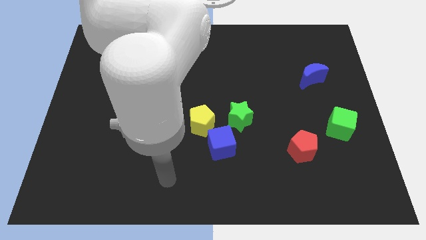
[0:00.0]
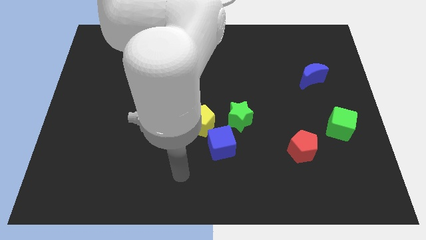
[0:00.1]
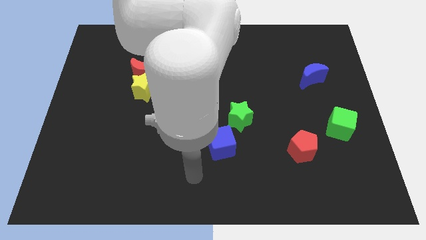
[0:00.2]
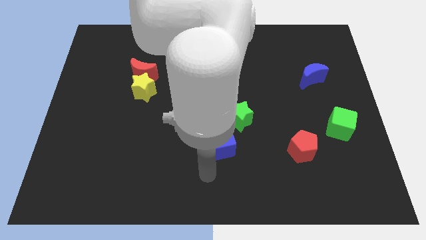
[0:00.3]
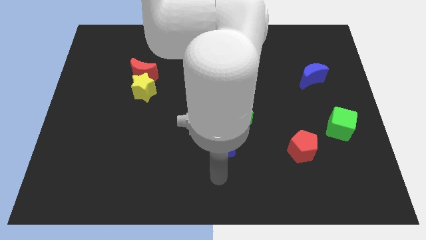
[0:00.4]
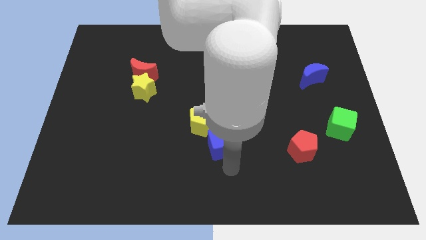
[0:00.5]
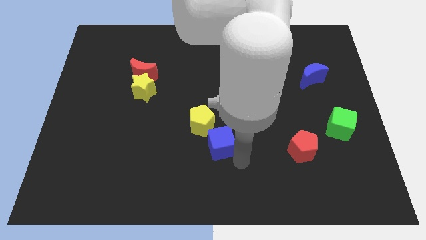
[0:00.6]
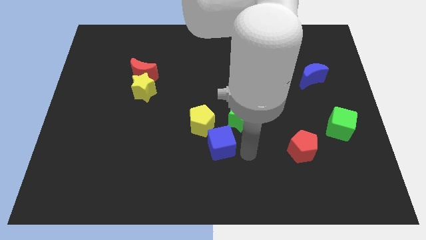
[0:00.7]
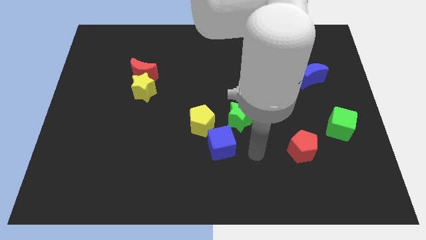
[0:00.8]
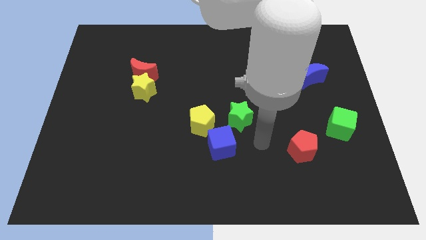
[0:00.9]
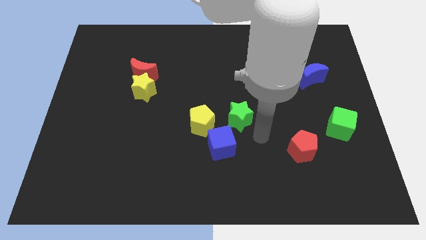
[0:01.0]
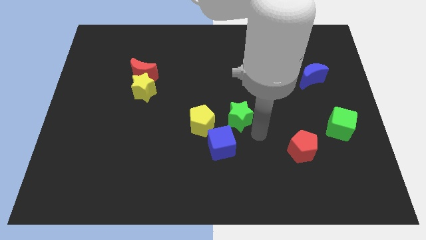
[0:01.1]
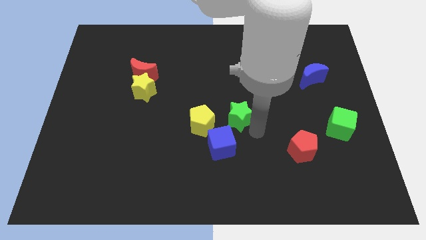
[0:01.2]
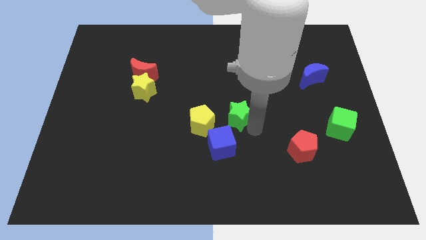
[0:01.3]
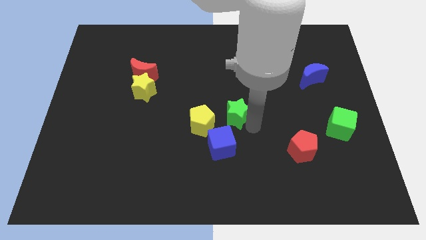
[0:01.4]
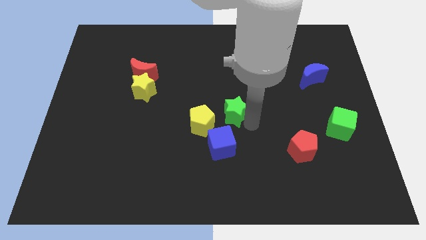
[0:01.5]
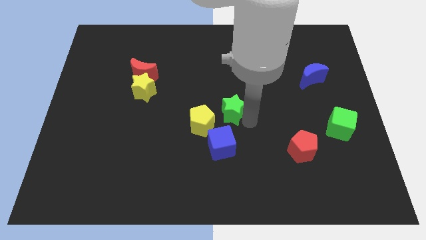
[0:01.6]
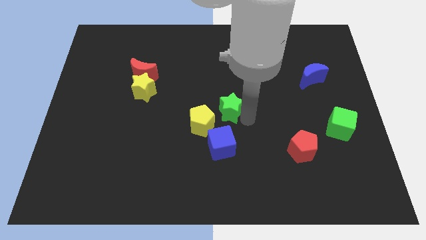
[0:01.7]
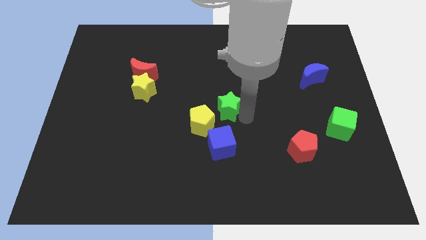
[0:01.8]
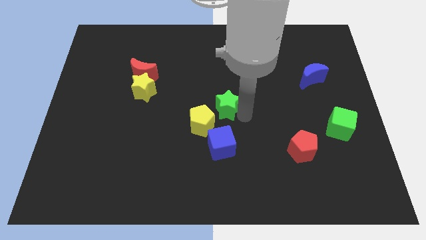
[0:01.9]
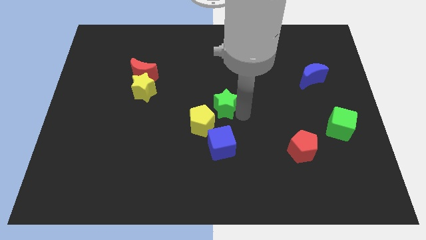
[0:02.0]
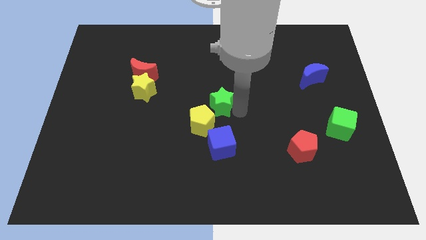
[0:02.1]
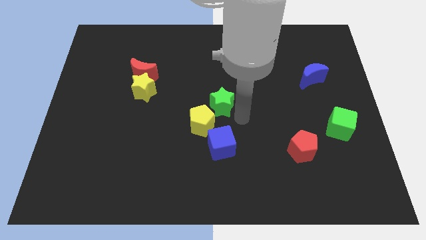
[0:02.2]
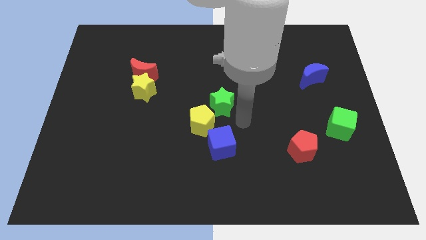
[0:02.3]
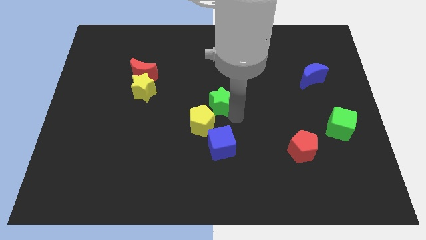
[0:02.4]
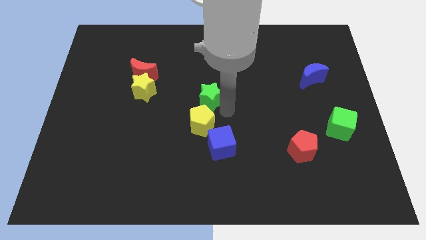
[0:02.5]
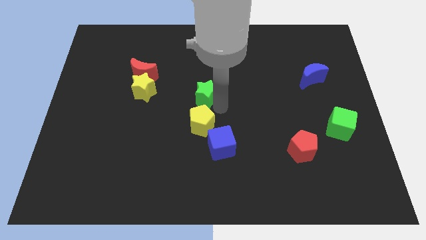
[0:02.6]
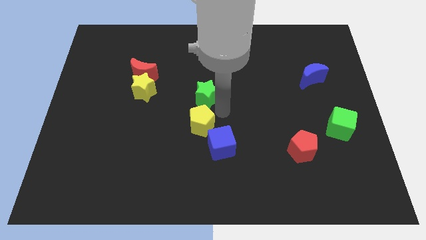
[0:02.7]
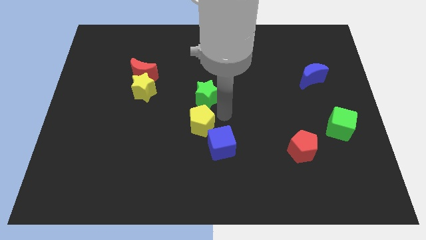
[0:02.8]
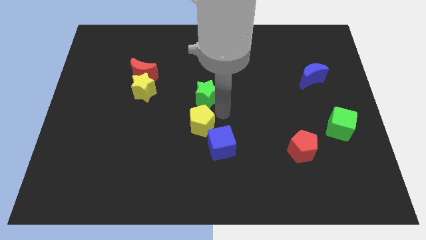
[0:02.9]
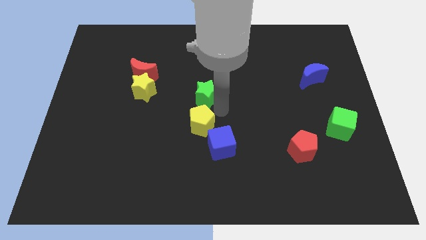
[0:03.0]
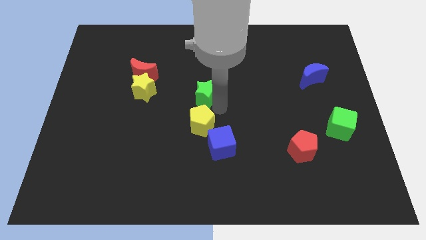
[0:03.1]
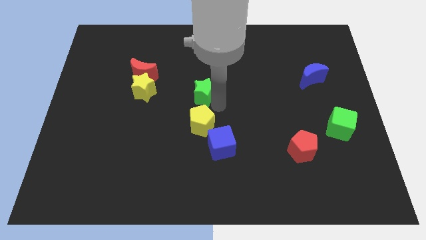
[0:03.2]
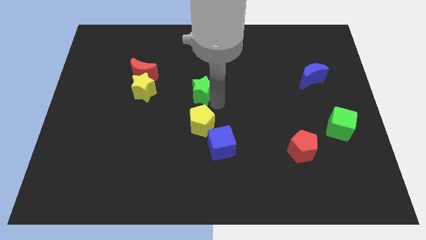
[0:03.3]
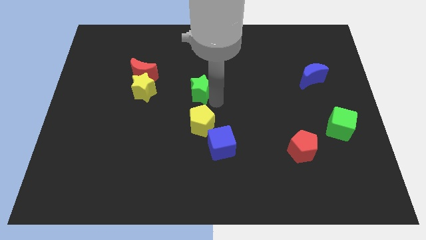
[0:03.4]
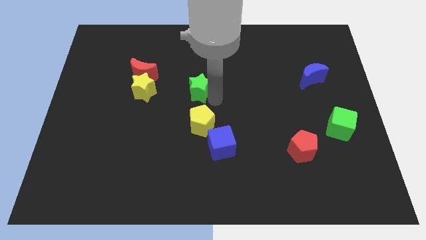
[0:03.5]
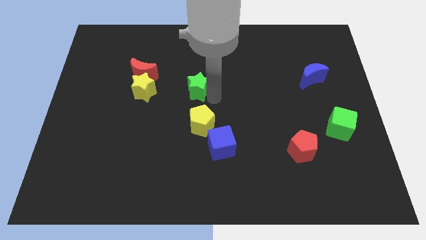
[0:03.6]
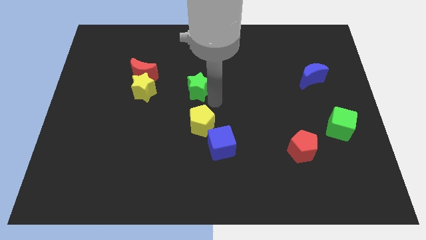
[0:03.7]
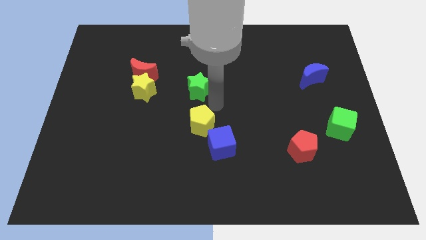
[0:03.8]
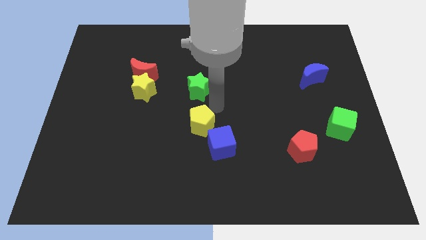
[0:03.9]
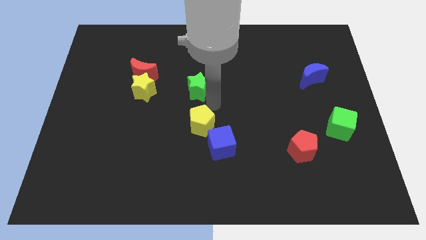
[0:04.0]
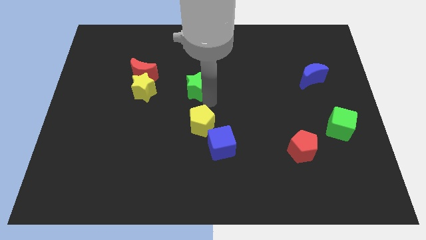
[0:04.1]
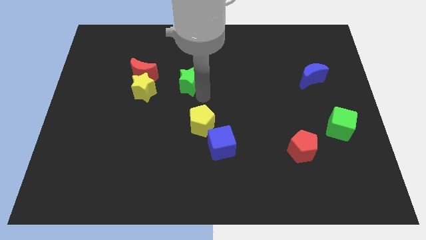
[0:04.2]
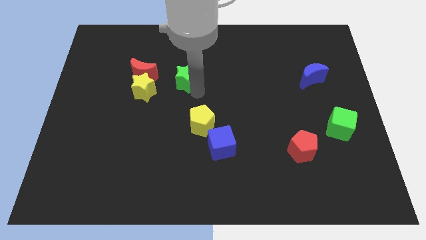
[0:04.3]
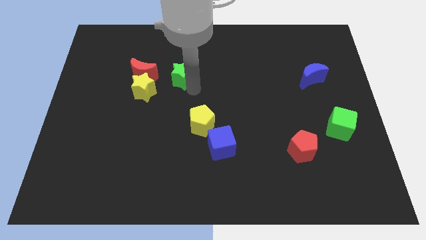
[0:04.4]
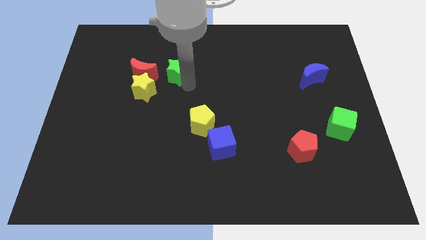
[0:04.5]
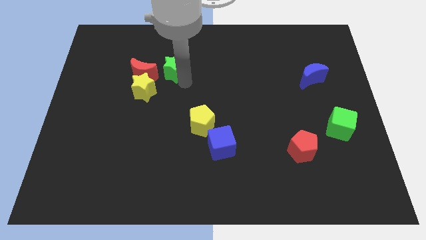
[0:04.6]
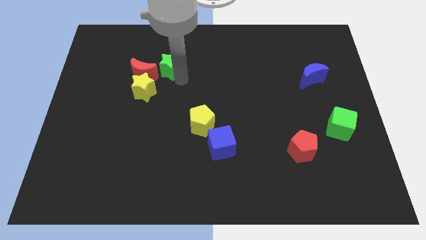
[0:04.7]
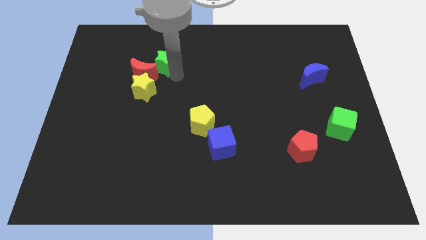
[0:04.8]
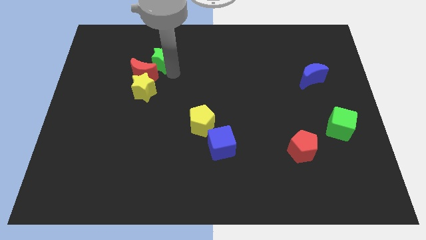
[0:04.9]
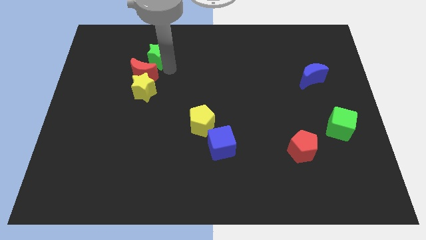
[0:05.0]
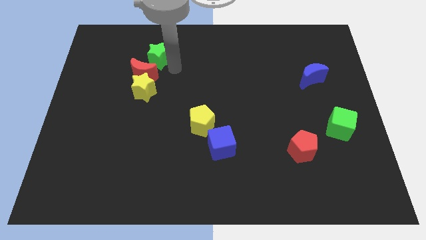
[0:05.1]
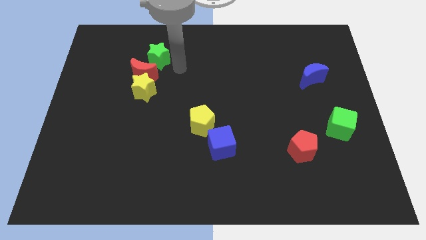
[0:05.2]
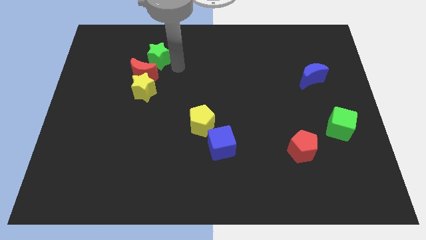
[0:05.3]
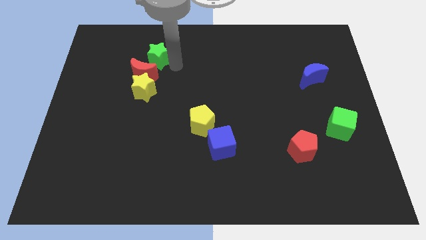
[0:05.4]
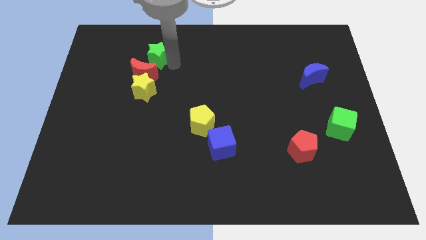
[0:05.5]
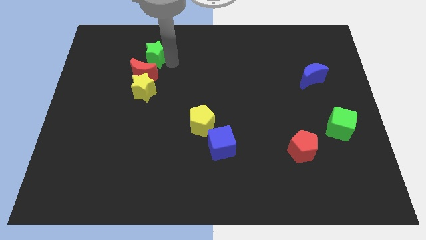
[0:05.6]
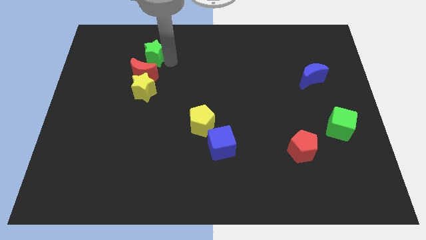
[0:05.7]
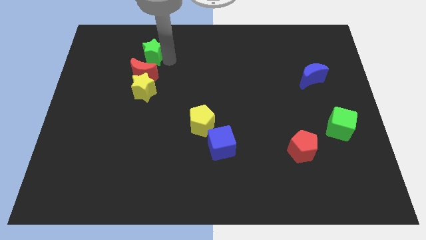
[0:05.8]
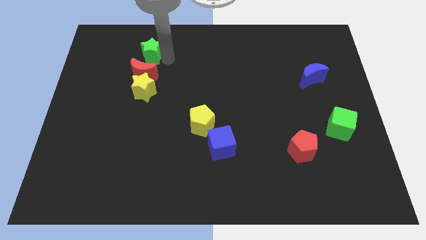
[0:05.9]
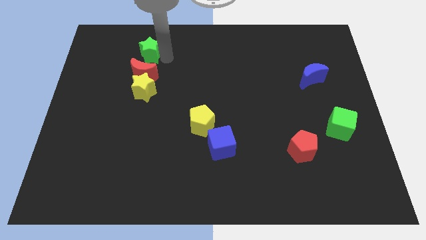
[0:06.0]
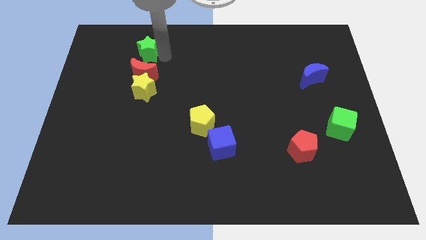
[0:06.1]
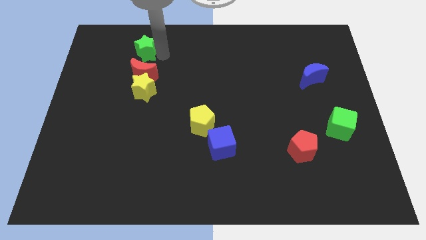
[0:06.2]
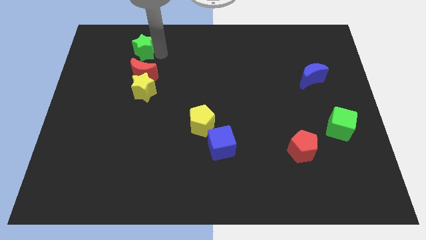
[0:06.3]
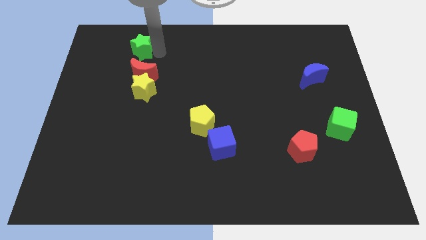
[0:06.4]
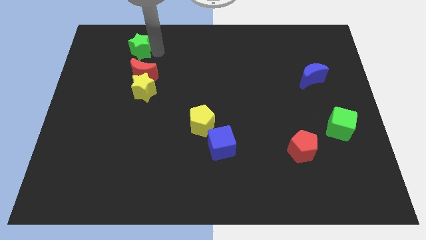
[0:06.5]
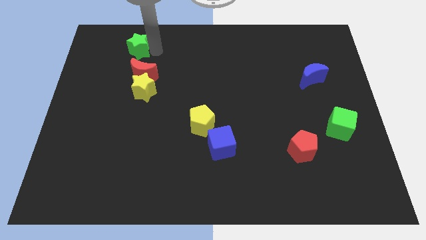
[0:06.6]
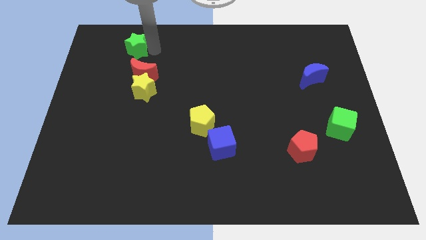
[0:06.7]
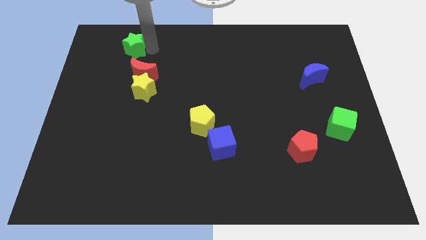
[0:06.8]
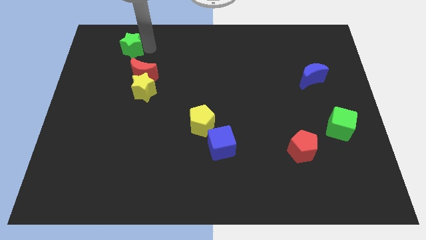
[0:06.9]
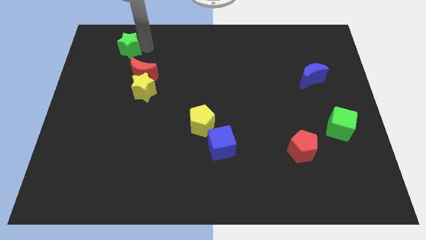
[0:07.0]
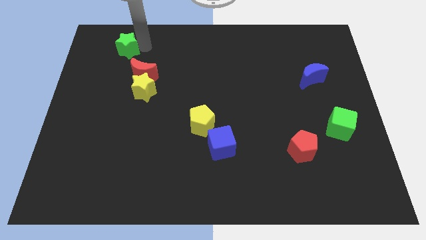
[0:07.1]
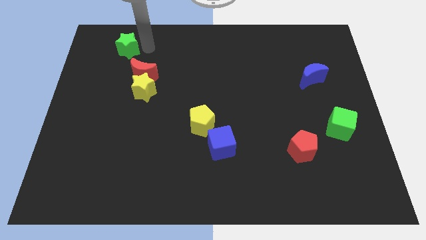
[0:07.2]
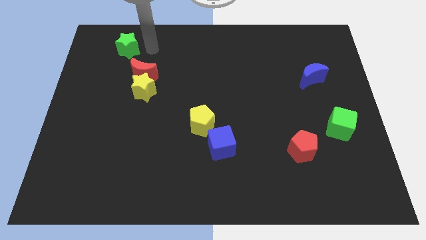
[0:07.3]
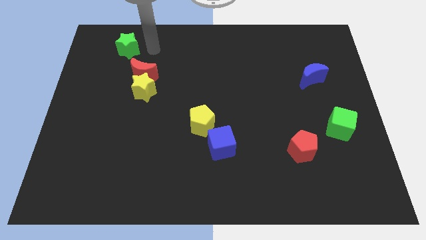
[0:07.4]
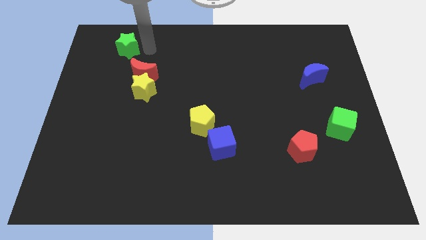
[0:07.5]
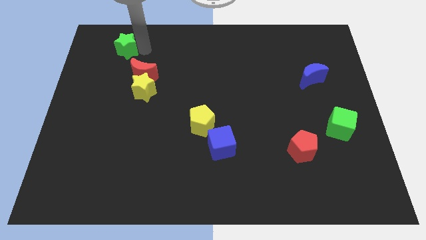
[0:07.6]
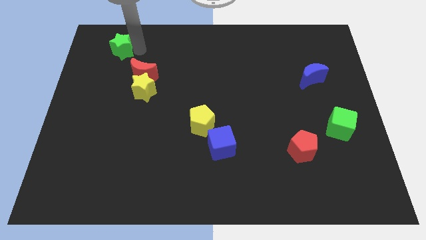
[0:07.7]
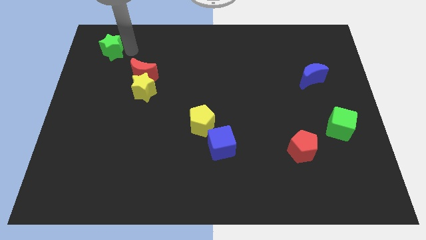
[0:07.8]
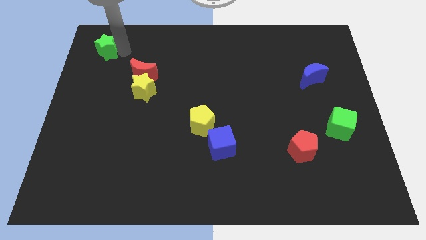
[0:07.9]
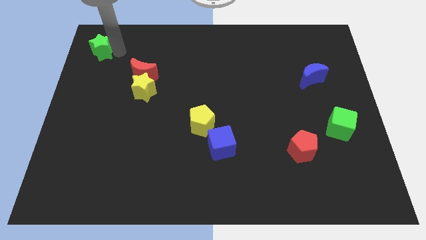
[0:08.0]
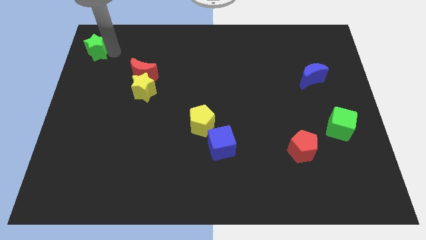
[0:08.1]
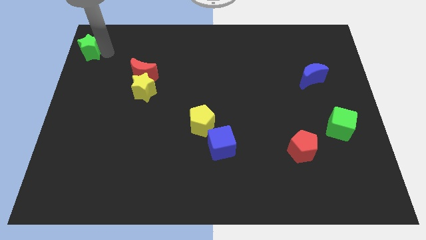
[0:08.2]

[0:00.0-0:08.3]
slide the green star to the upper left corner
